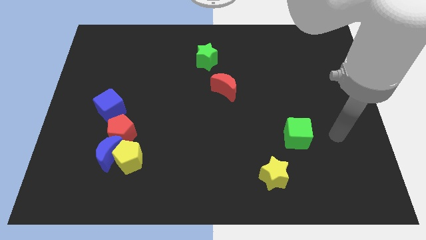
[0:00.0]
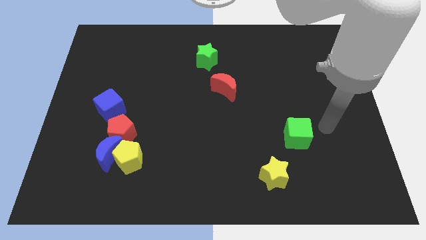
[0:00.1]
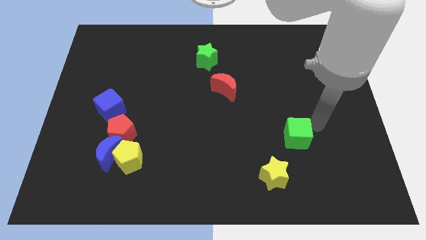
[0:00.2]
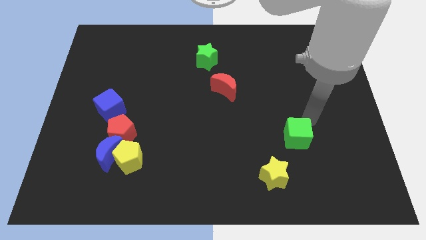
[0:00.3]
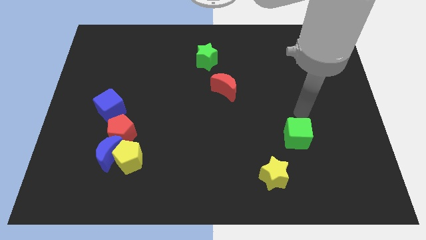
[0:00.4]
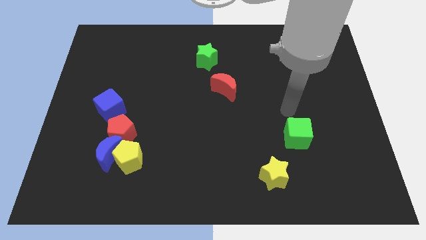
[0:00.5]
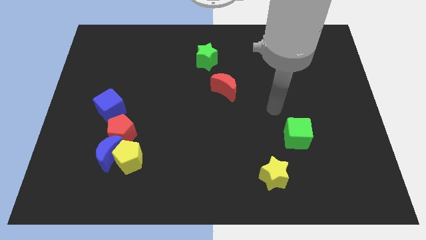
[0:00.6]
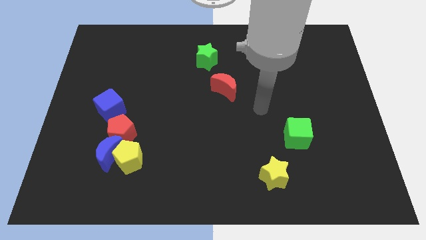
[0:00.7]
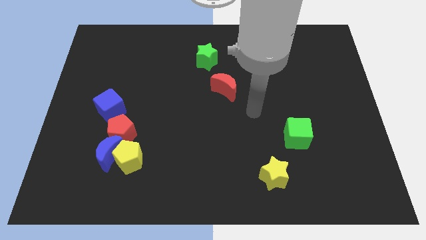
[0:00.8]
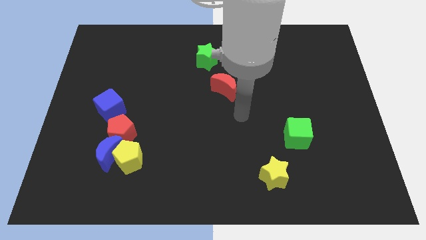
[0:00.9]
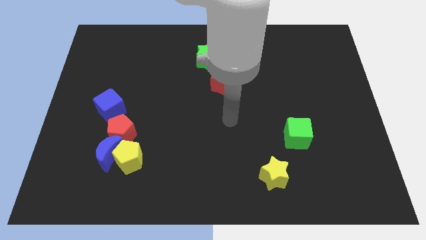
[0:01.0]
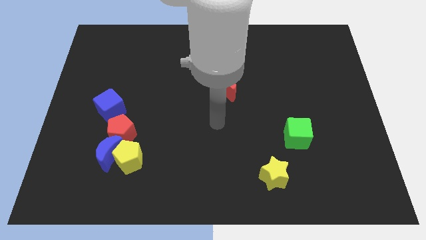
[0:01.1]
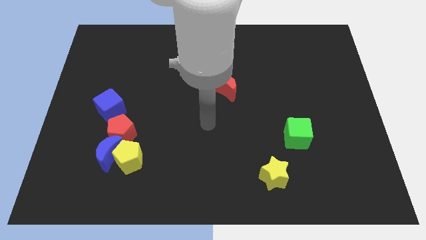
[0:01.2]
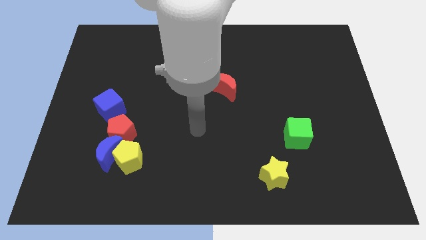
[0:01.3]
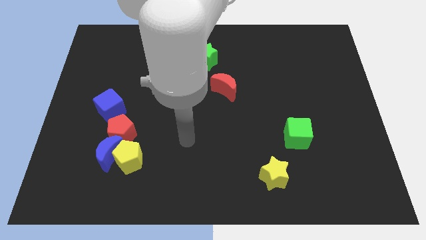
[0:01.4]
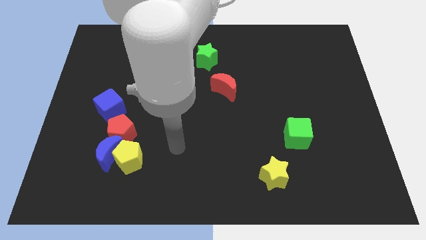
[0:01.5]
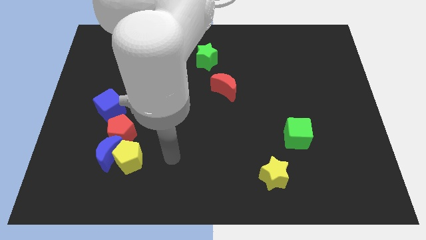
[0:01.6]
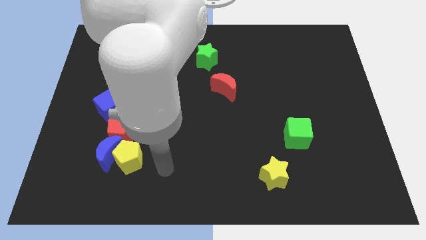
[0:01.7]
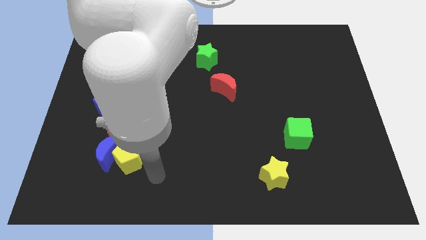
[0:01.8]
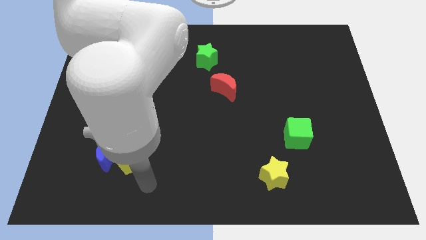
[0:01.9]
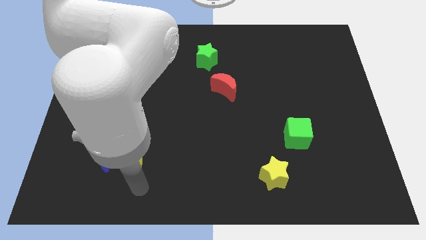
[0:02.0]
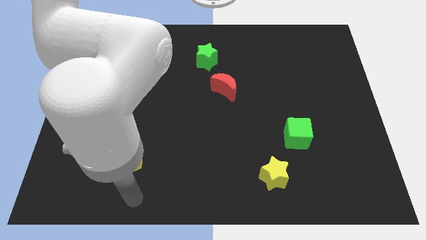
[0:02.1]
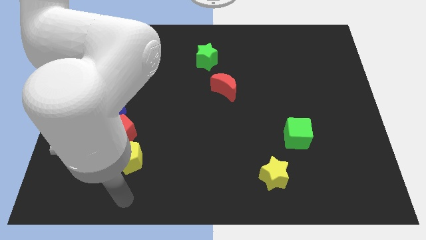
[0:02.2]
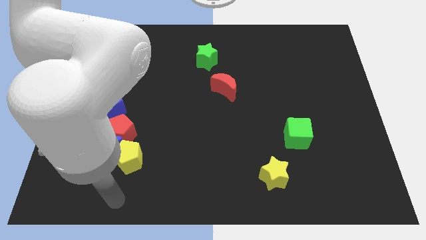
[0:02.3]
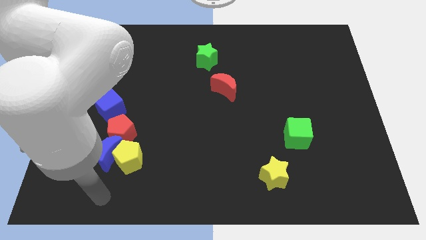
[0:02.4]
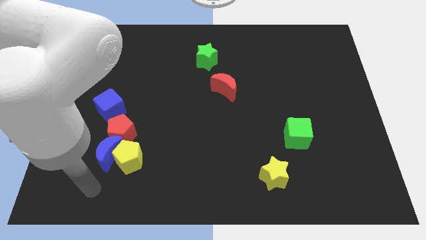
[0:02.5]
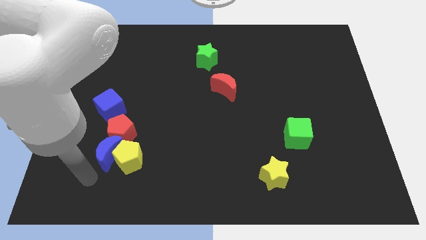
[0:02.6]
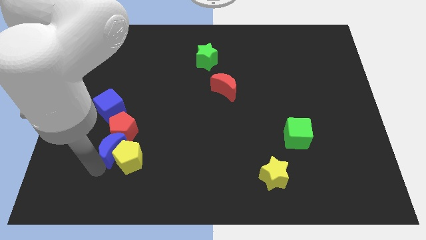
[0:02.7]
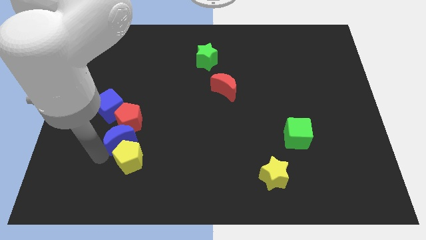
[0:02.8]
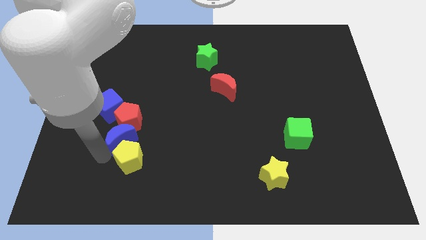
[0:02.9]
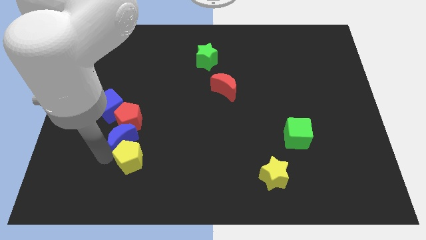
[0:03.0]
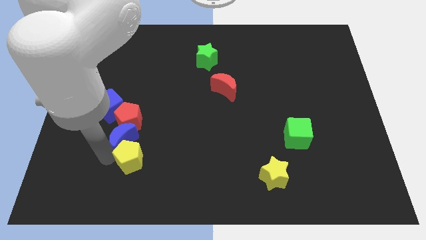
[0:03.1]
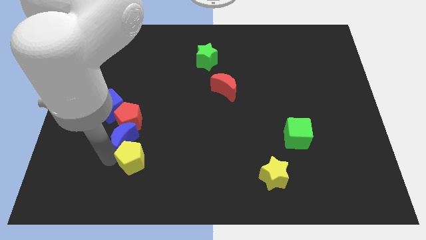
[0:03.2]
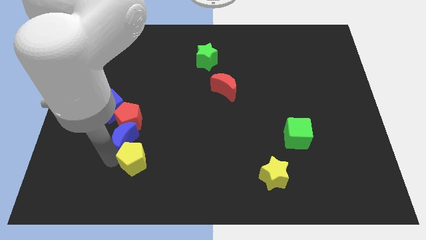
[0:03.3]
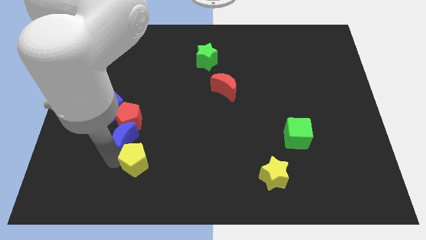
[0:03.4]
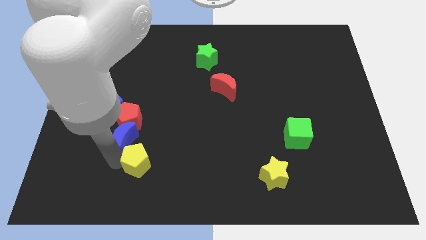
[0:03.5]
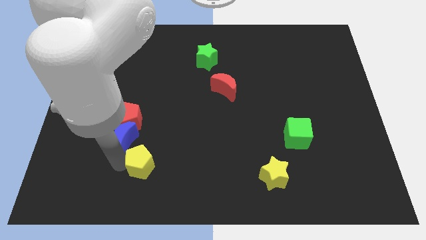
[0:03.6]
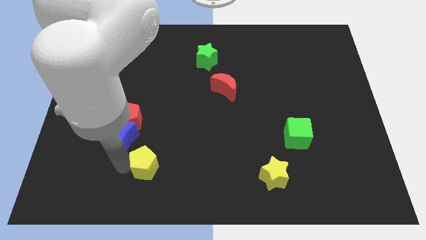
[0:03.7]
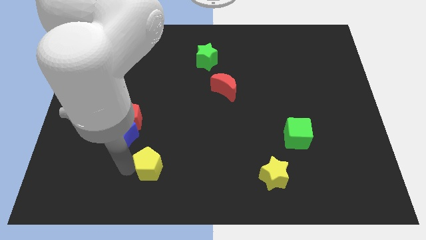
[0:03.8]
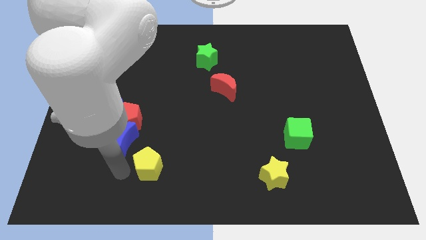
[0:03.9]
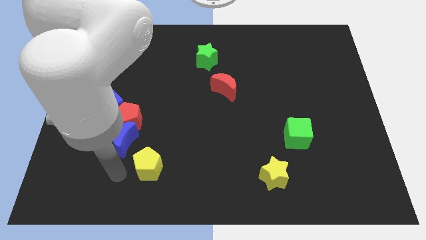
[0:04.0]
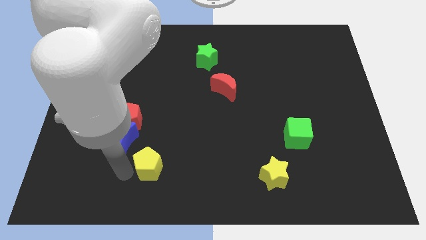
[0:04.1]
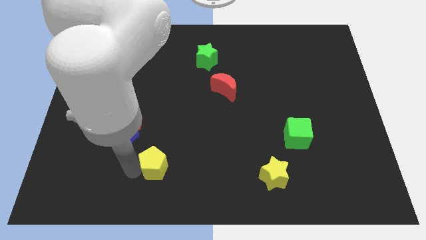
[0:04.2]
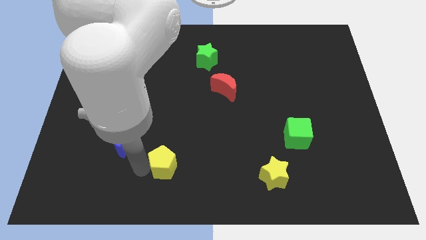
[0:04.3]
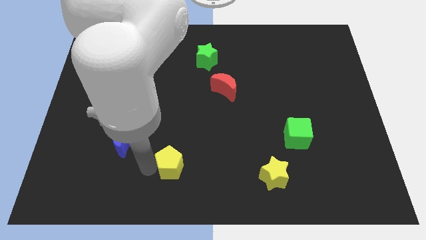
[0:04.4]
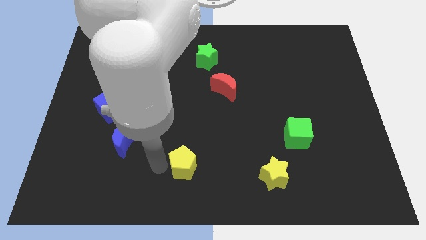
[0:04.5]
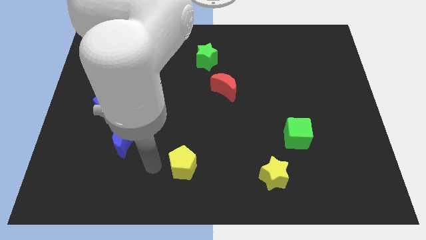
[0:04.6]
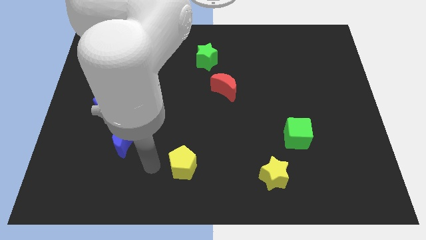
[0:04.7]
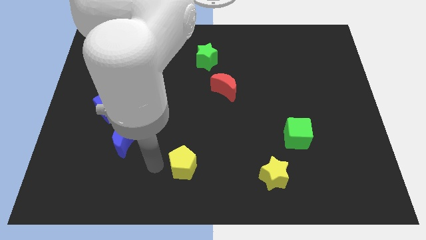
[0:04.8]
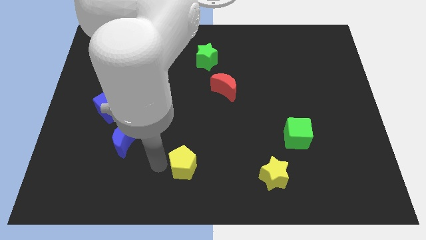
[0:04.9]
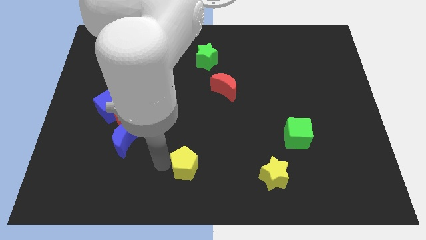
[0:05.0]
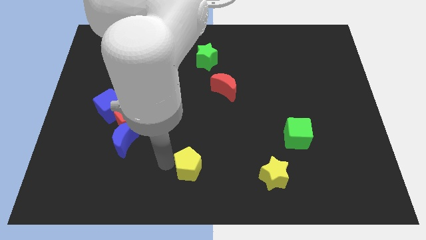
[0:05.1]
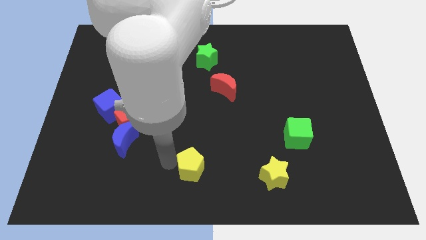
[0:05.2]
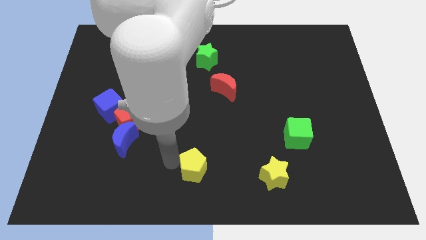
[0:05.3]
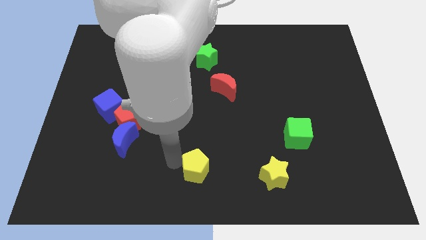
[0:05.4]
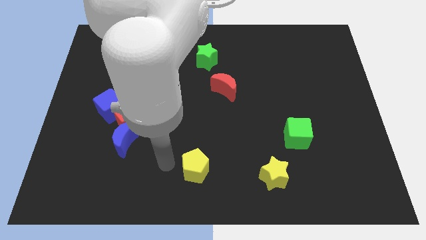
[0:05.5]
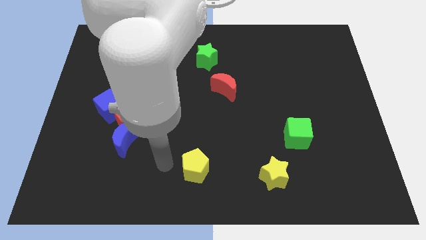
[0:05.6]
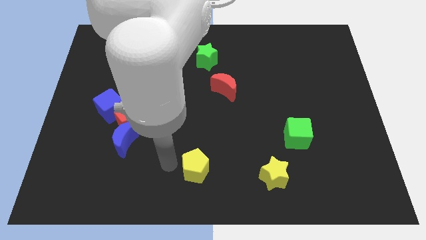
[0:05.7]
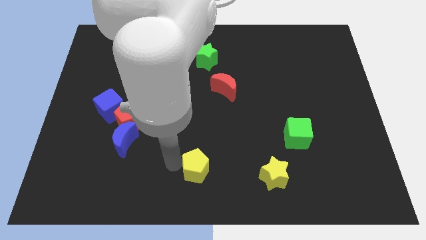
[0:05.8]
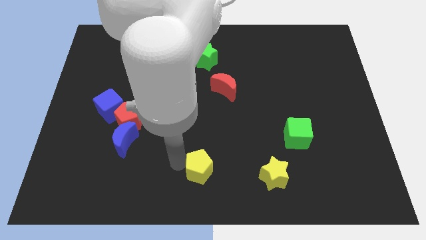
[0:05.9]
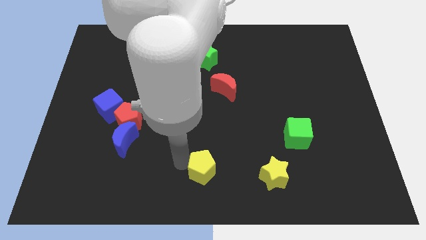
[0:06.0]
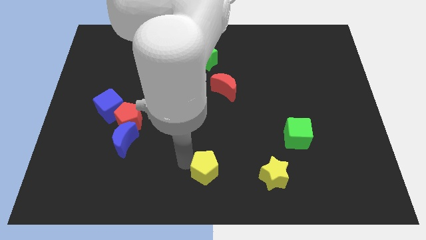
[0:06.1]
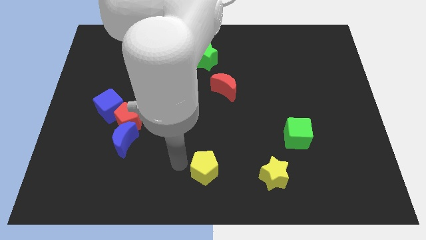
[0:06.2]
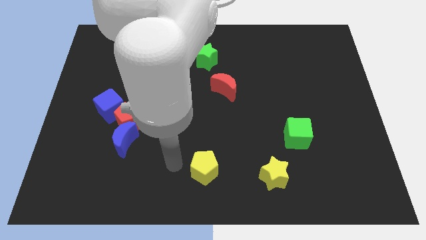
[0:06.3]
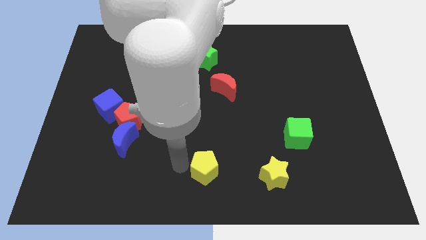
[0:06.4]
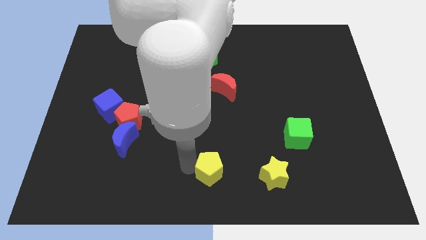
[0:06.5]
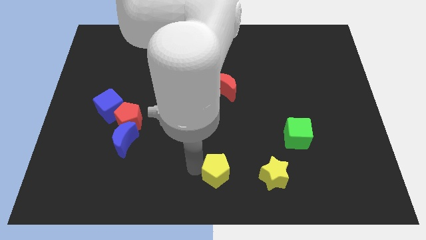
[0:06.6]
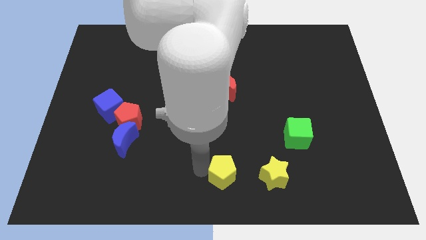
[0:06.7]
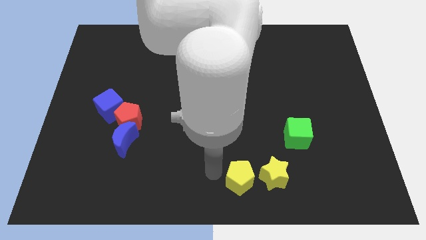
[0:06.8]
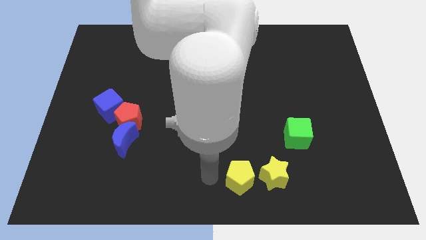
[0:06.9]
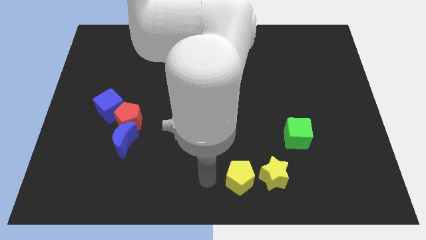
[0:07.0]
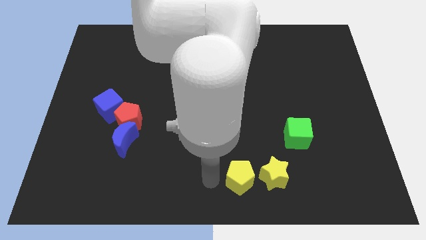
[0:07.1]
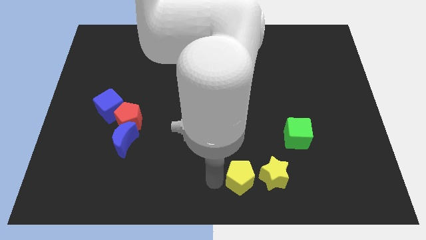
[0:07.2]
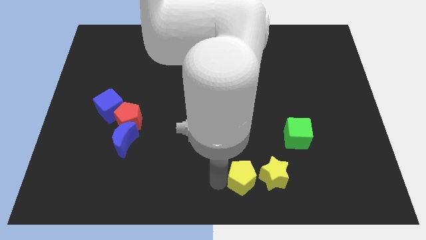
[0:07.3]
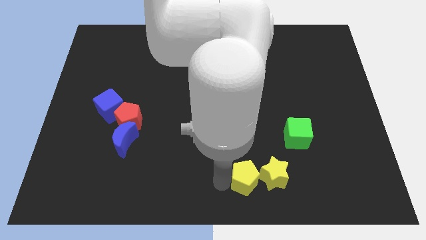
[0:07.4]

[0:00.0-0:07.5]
push the yellow pentagon close to the yellow star
